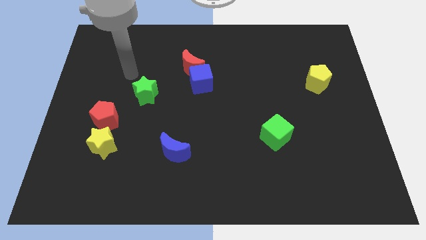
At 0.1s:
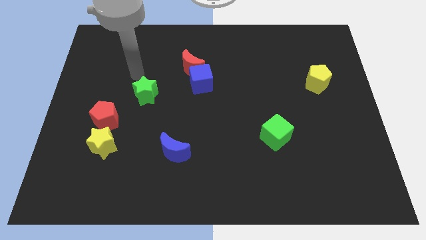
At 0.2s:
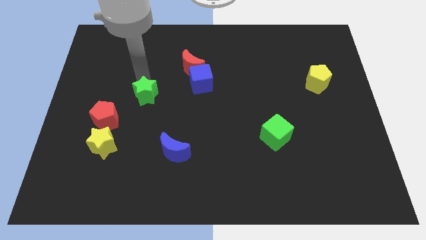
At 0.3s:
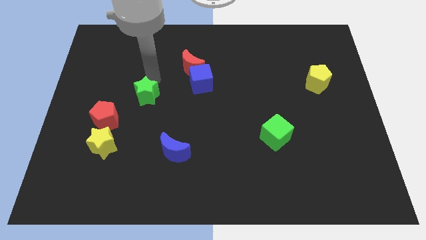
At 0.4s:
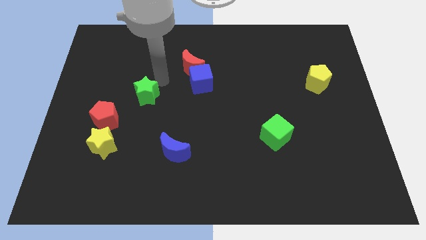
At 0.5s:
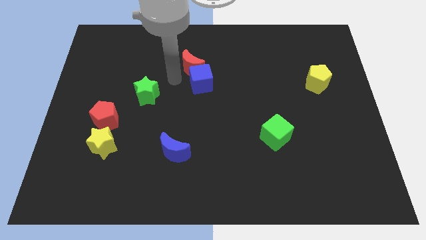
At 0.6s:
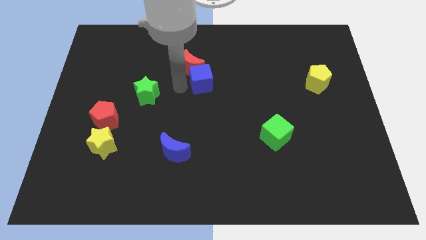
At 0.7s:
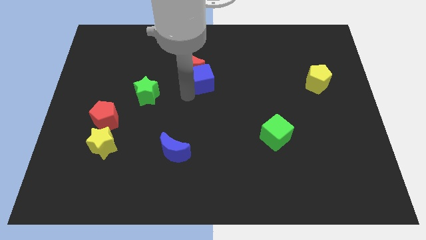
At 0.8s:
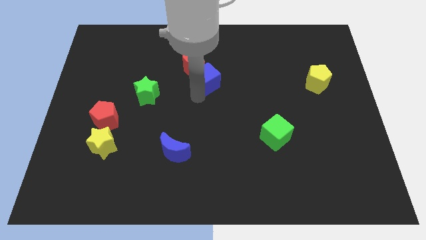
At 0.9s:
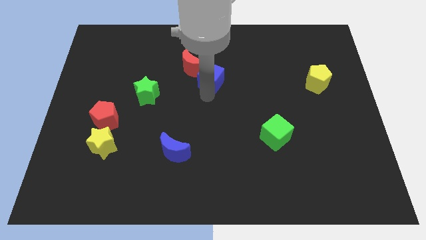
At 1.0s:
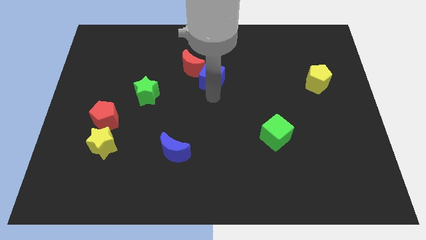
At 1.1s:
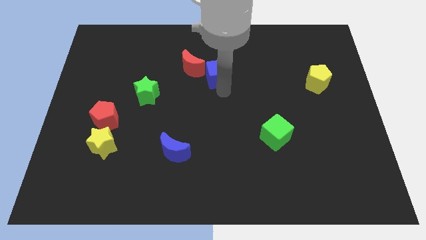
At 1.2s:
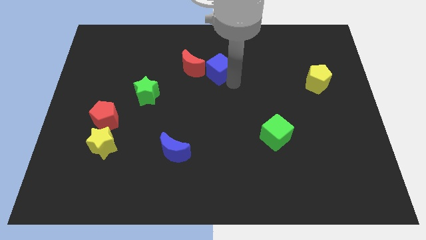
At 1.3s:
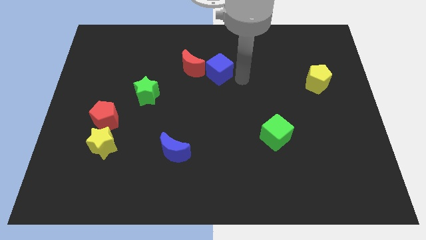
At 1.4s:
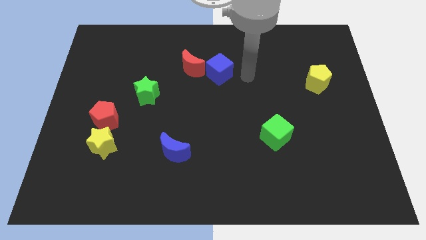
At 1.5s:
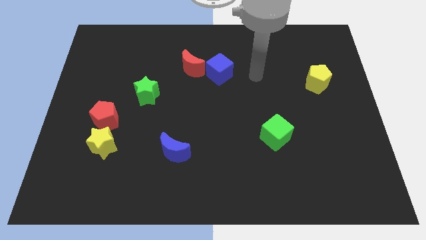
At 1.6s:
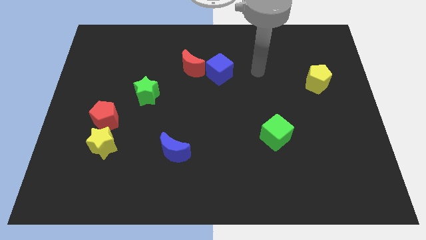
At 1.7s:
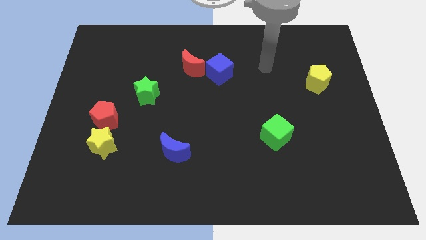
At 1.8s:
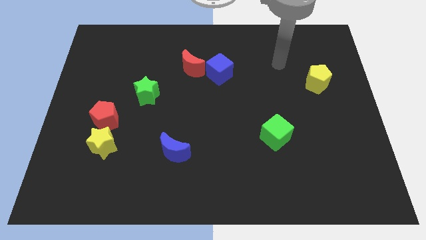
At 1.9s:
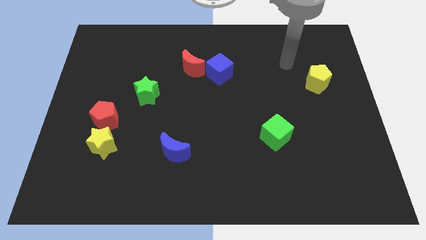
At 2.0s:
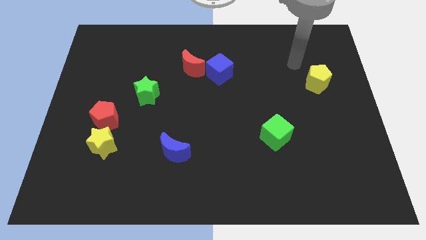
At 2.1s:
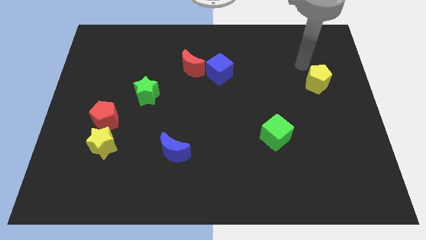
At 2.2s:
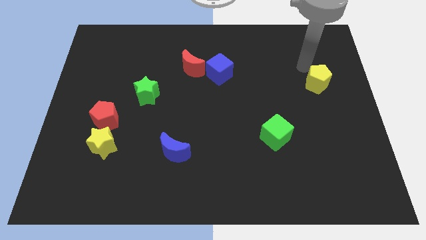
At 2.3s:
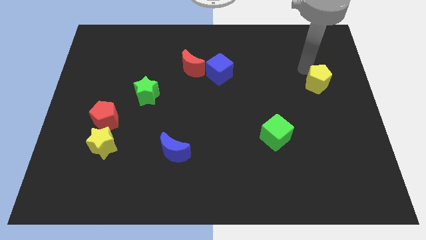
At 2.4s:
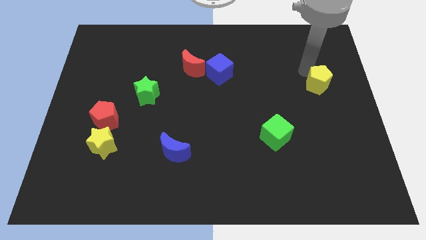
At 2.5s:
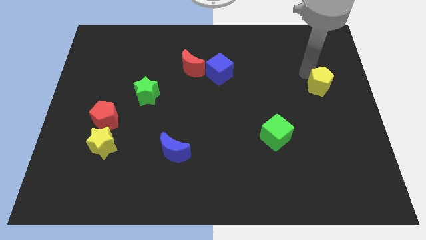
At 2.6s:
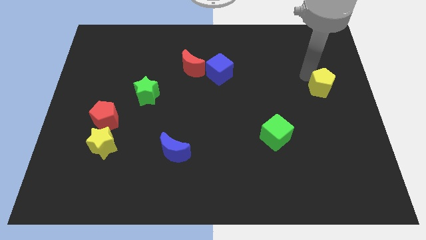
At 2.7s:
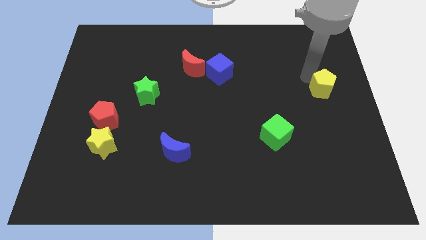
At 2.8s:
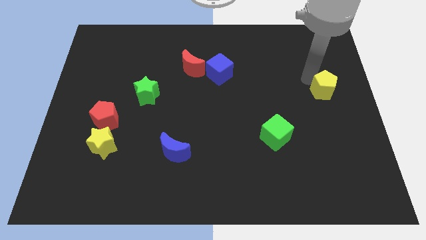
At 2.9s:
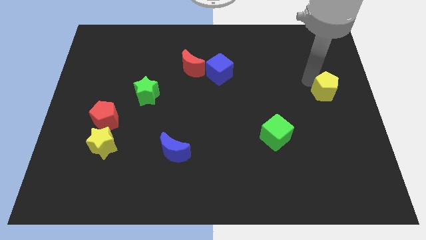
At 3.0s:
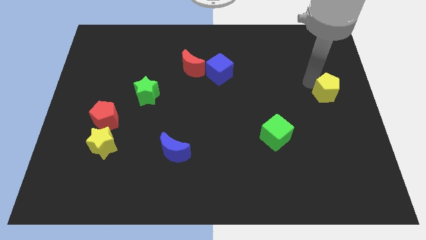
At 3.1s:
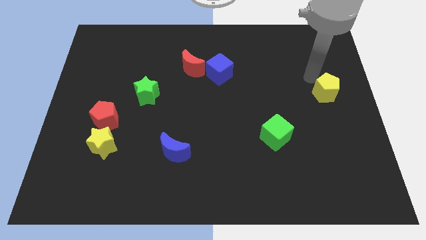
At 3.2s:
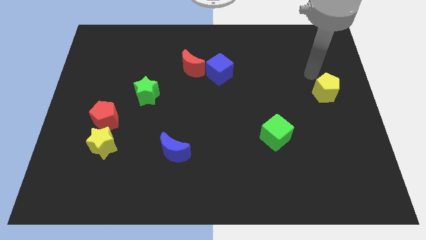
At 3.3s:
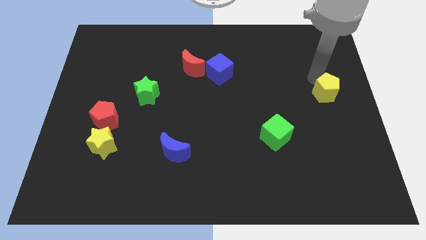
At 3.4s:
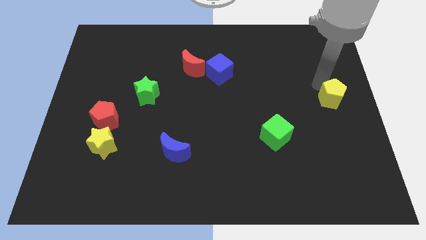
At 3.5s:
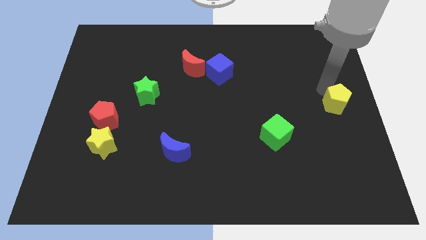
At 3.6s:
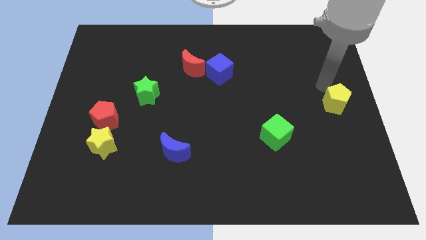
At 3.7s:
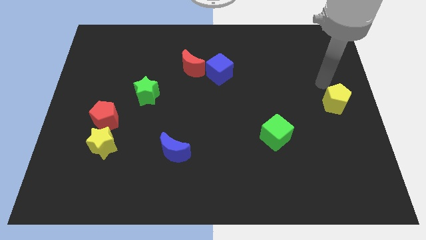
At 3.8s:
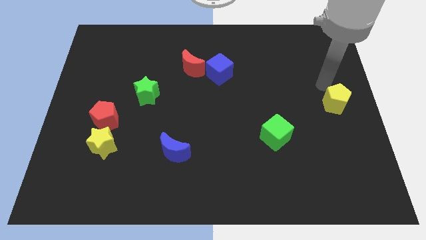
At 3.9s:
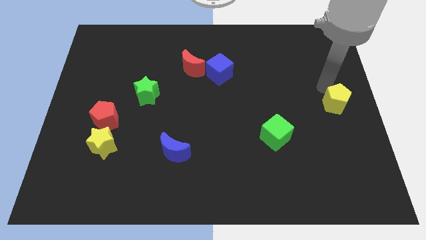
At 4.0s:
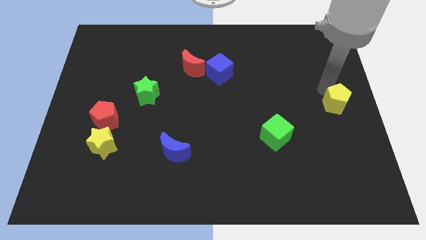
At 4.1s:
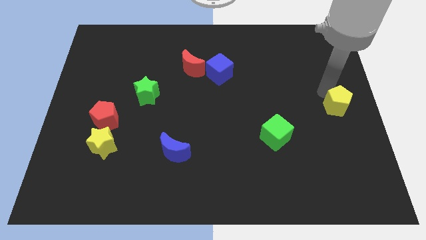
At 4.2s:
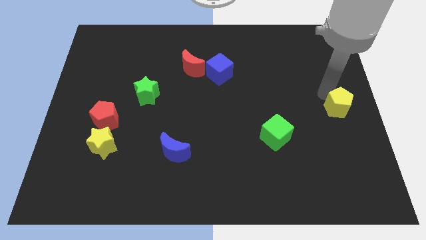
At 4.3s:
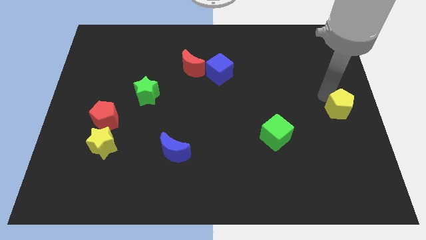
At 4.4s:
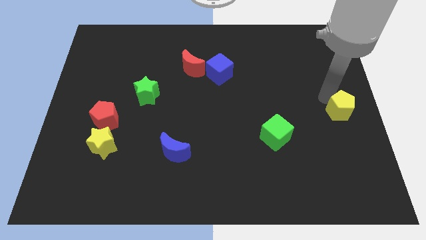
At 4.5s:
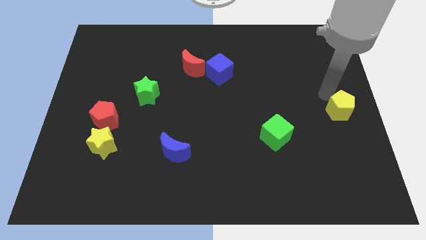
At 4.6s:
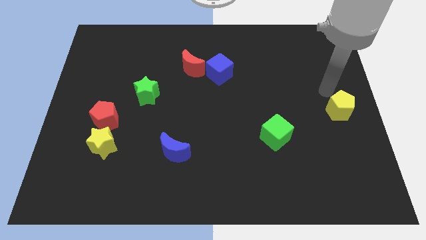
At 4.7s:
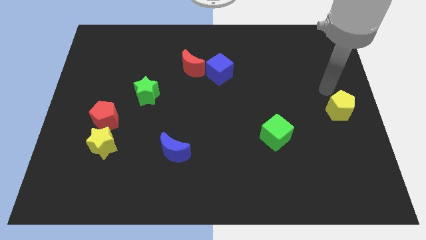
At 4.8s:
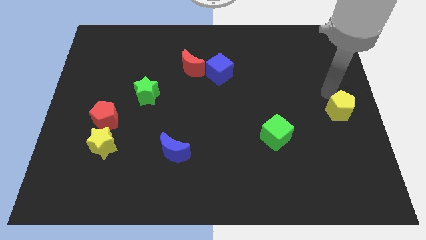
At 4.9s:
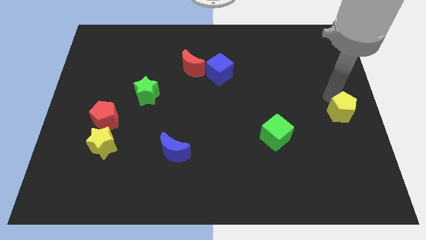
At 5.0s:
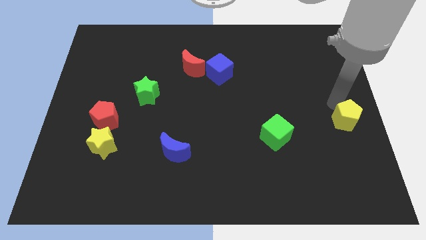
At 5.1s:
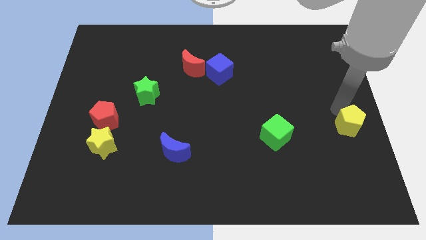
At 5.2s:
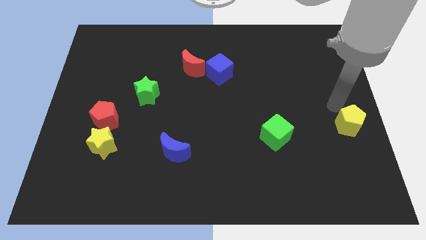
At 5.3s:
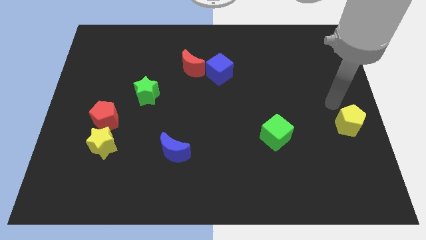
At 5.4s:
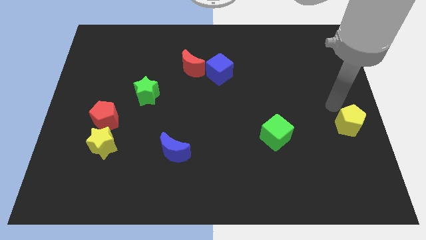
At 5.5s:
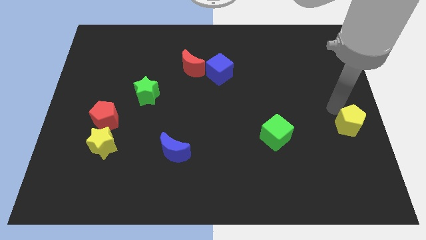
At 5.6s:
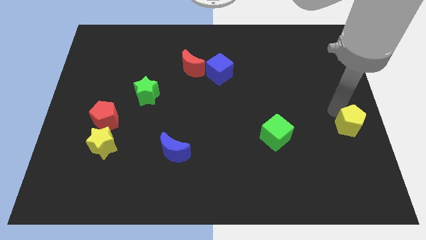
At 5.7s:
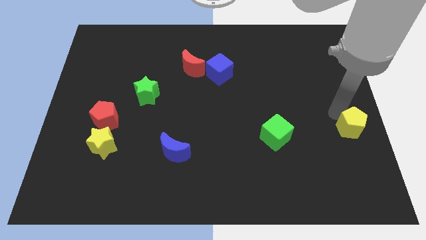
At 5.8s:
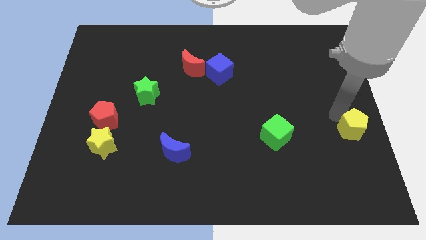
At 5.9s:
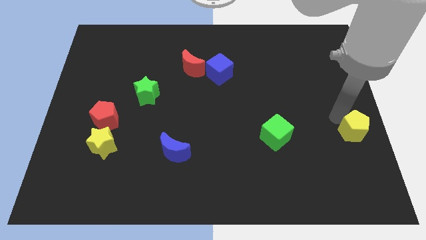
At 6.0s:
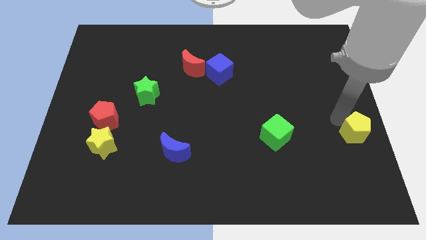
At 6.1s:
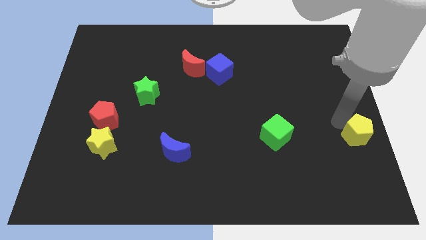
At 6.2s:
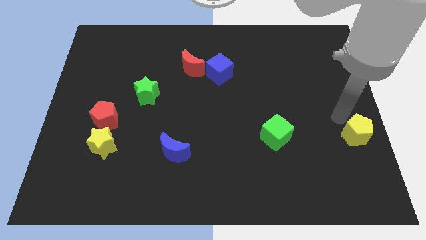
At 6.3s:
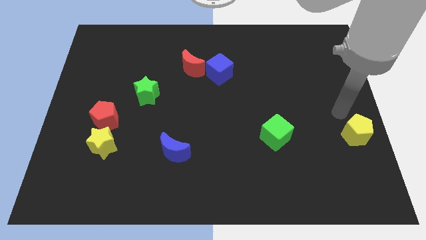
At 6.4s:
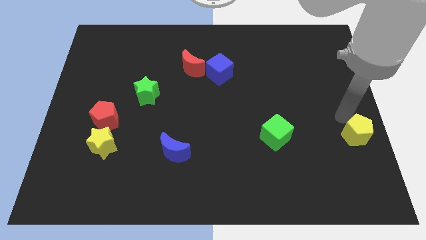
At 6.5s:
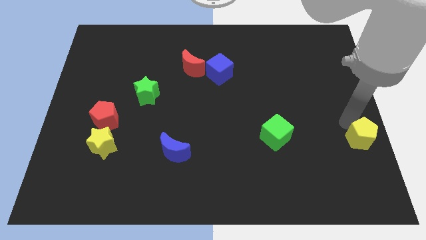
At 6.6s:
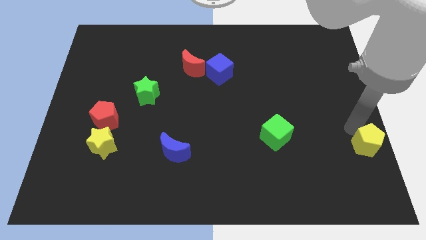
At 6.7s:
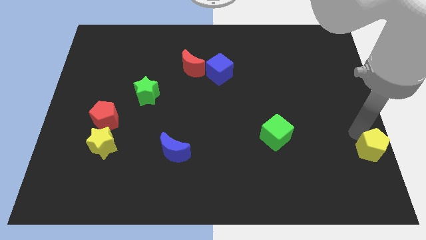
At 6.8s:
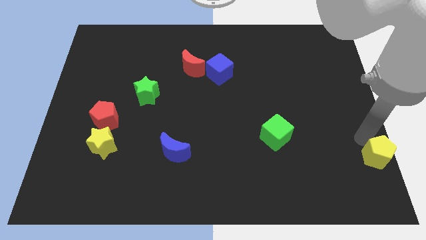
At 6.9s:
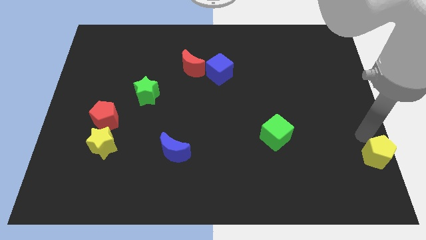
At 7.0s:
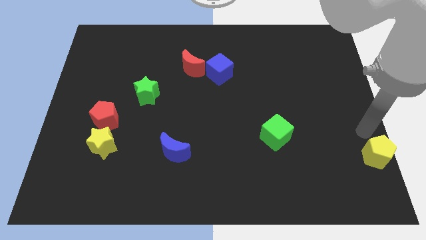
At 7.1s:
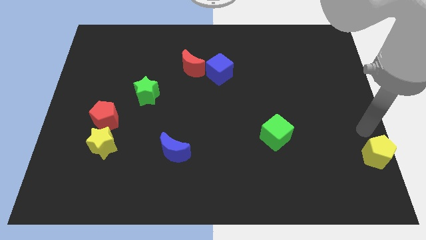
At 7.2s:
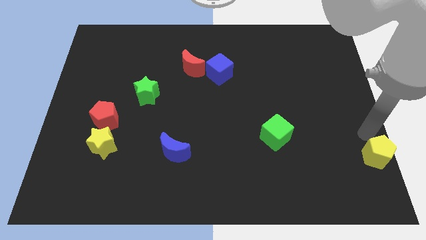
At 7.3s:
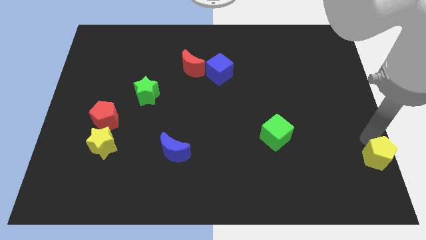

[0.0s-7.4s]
put the yellow pentagon to the bottom right corner
